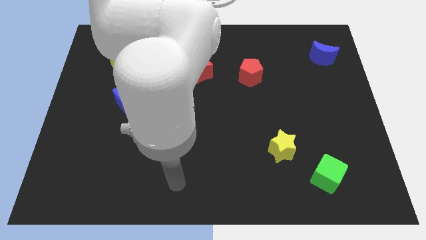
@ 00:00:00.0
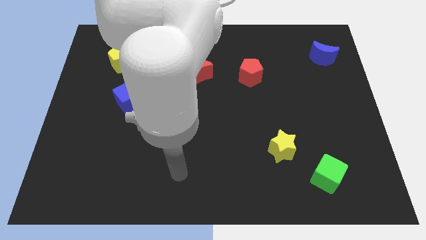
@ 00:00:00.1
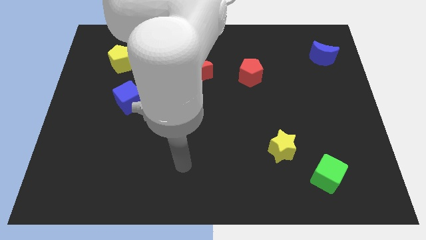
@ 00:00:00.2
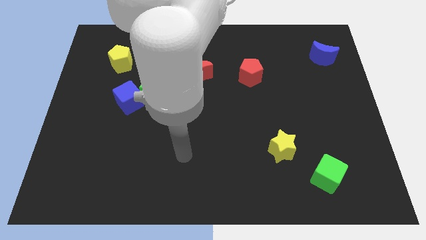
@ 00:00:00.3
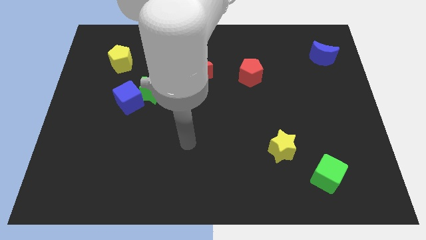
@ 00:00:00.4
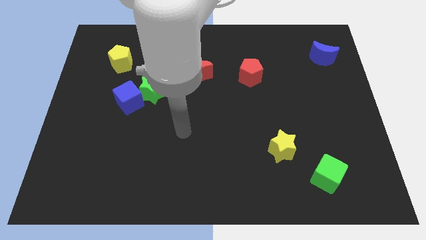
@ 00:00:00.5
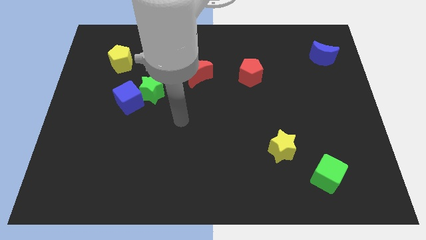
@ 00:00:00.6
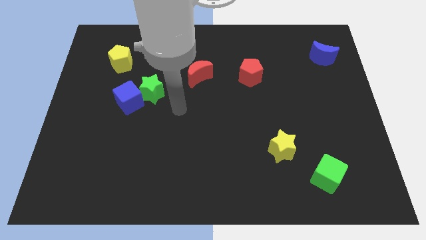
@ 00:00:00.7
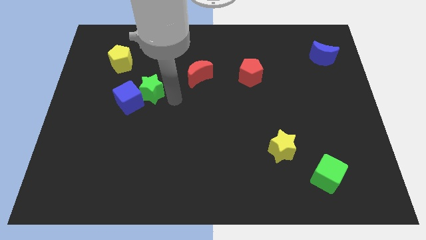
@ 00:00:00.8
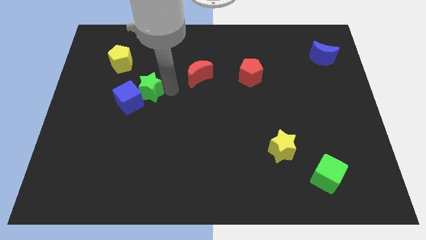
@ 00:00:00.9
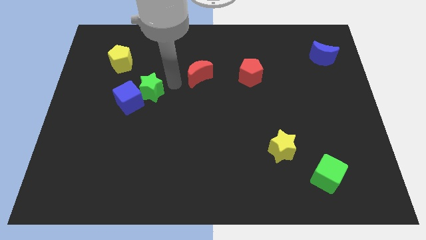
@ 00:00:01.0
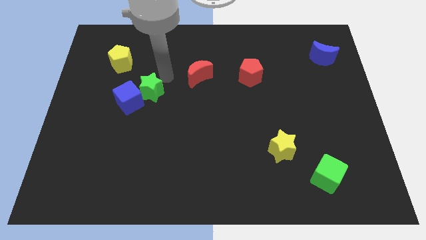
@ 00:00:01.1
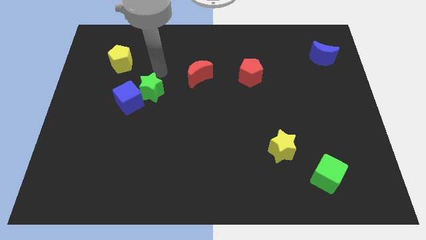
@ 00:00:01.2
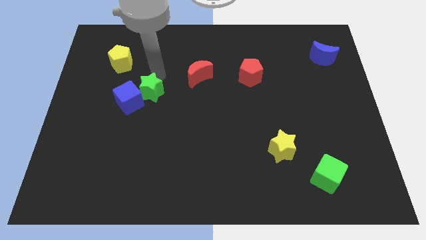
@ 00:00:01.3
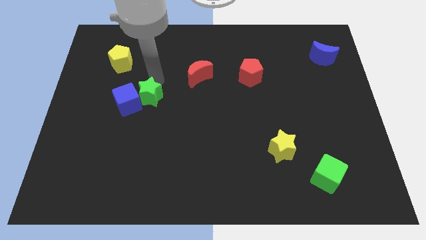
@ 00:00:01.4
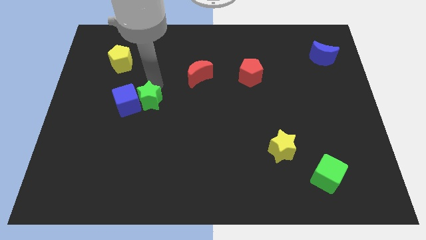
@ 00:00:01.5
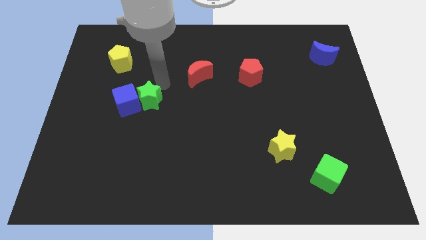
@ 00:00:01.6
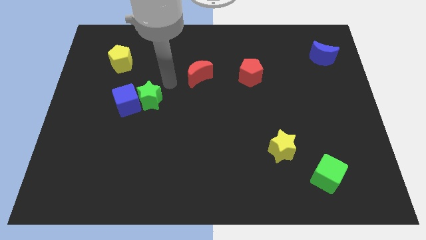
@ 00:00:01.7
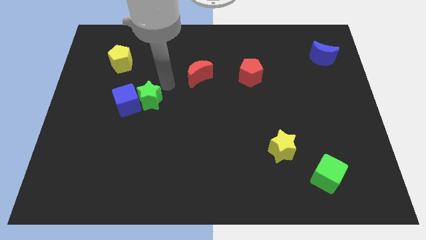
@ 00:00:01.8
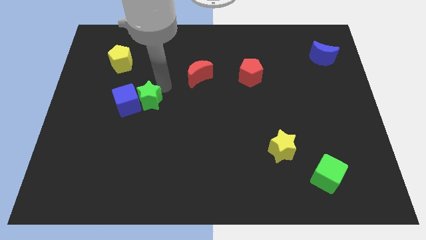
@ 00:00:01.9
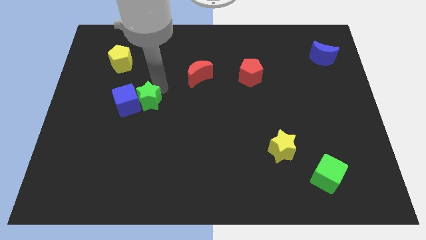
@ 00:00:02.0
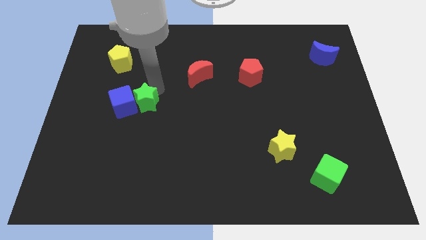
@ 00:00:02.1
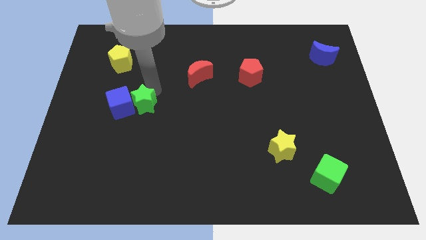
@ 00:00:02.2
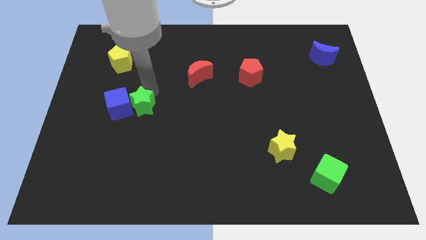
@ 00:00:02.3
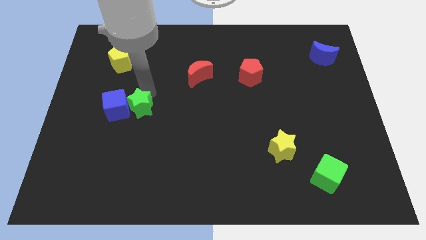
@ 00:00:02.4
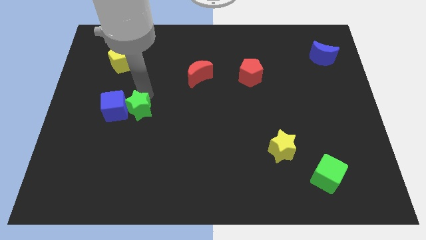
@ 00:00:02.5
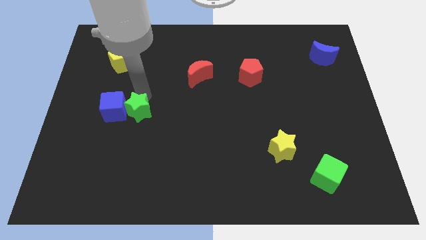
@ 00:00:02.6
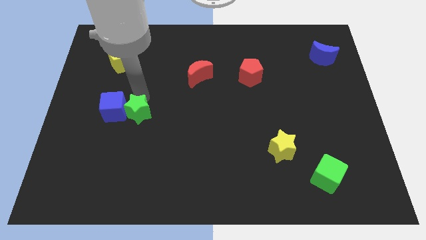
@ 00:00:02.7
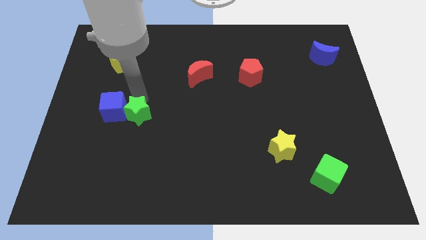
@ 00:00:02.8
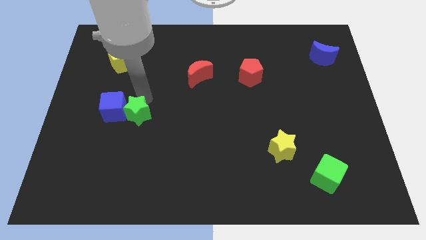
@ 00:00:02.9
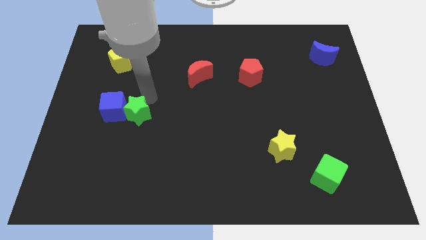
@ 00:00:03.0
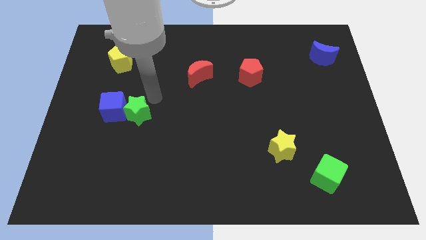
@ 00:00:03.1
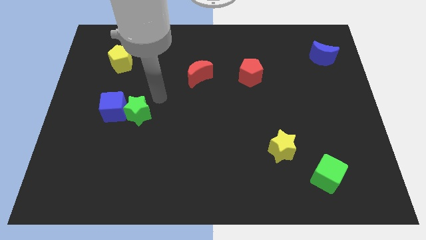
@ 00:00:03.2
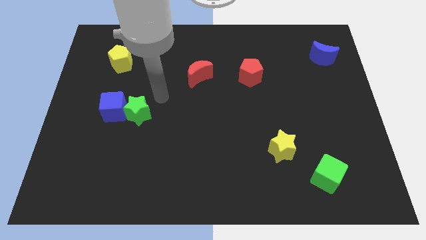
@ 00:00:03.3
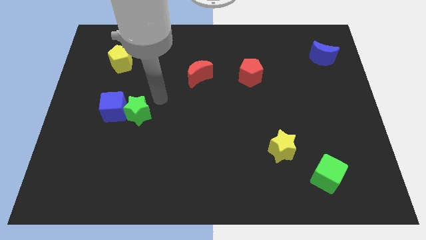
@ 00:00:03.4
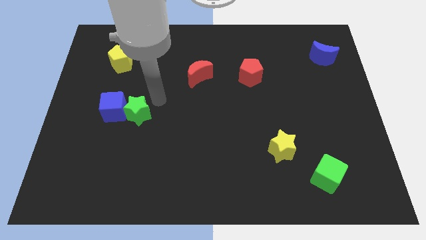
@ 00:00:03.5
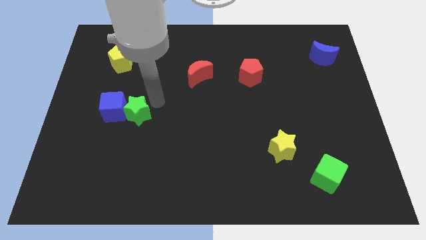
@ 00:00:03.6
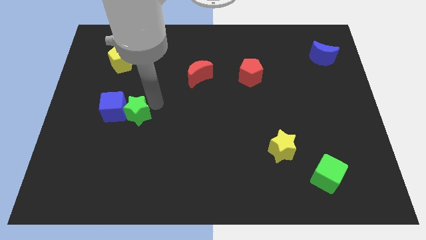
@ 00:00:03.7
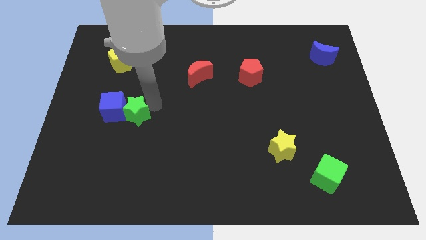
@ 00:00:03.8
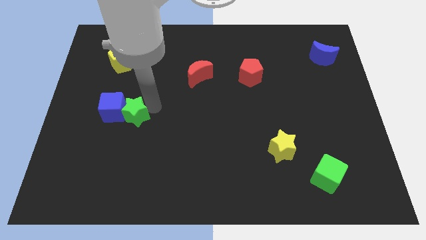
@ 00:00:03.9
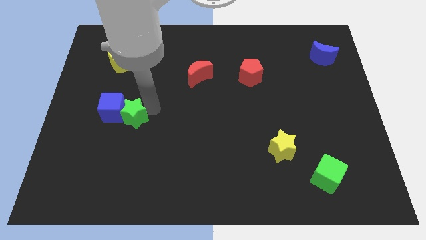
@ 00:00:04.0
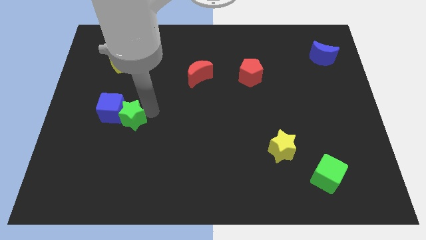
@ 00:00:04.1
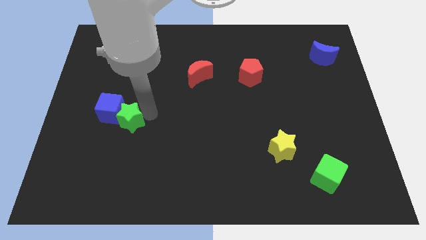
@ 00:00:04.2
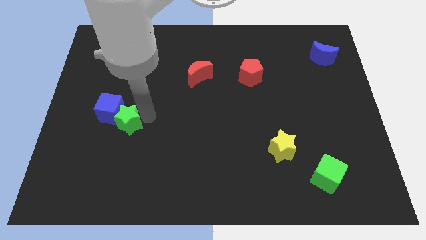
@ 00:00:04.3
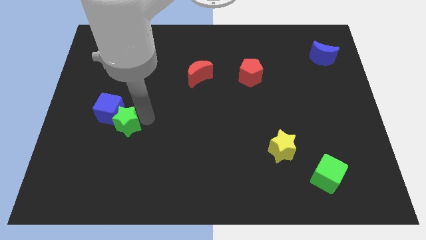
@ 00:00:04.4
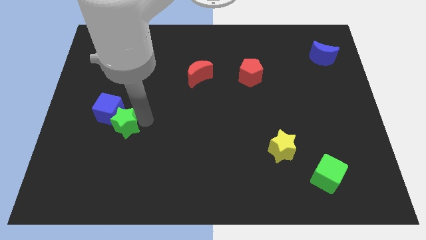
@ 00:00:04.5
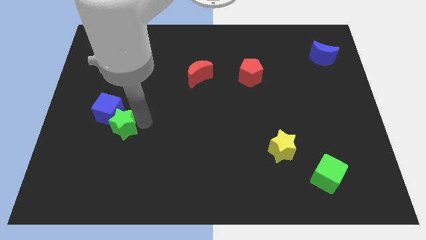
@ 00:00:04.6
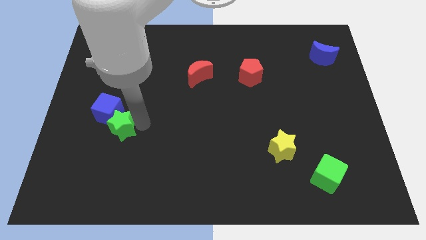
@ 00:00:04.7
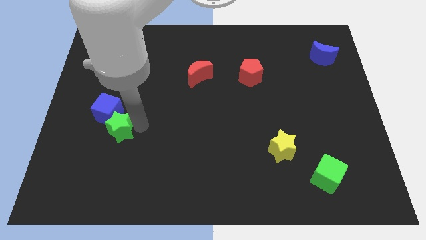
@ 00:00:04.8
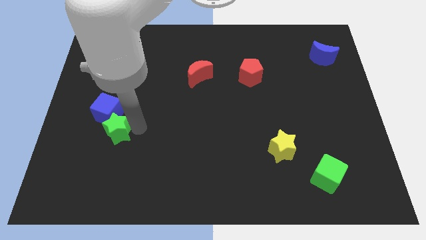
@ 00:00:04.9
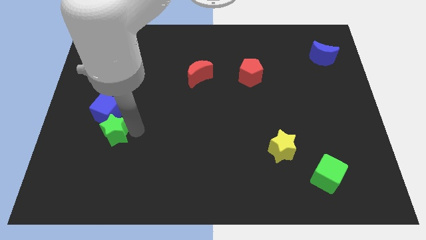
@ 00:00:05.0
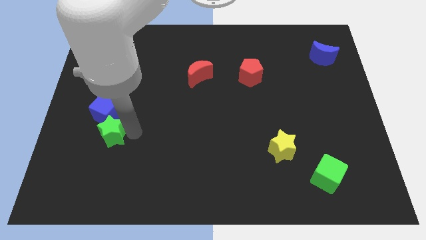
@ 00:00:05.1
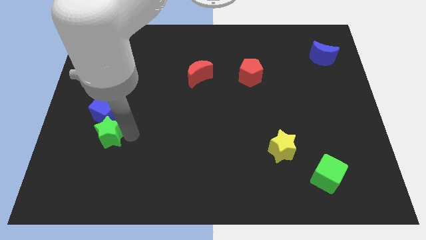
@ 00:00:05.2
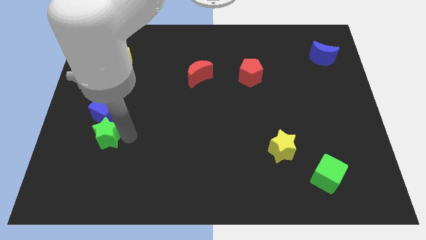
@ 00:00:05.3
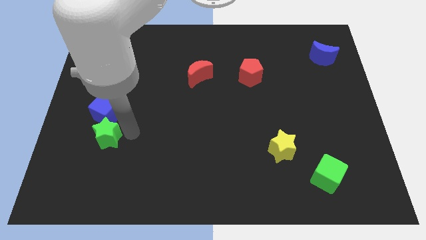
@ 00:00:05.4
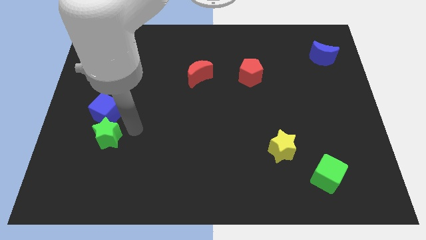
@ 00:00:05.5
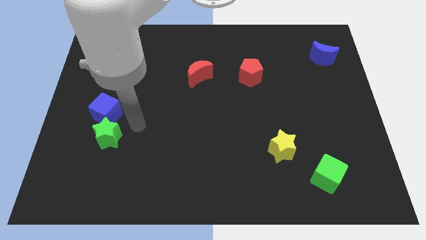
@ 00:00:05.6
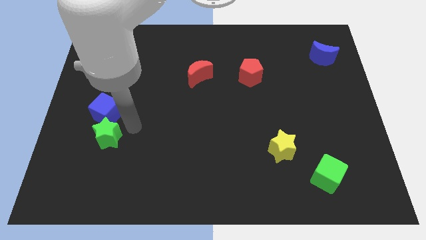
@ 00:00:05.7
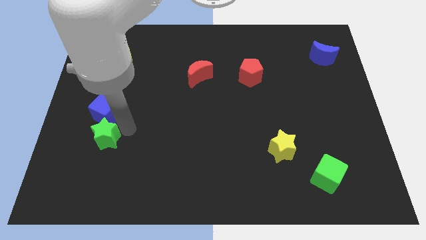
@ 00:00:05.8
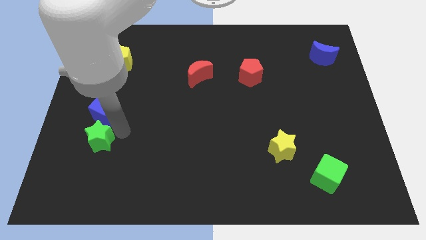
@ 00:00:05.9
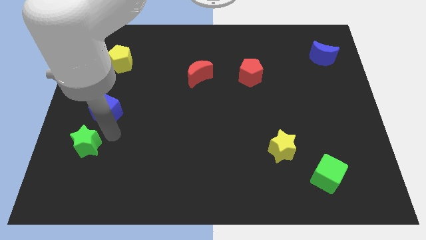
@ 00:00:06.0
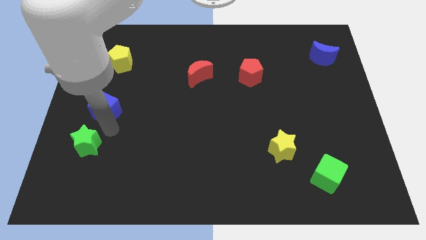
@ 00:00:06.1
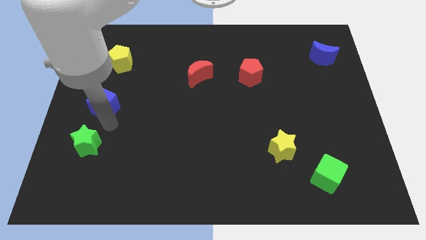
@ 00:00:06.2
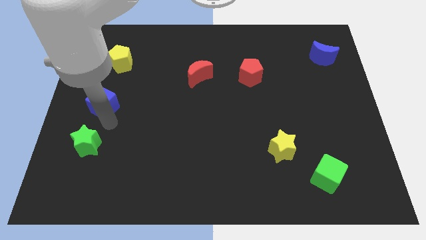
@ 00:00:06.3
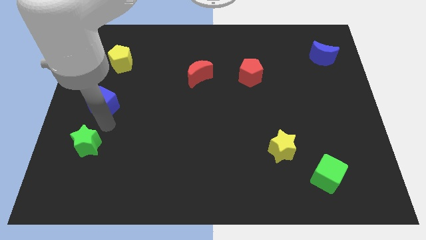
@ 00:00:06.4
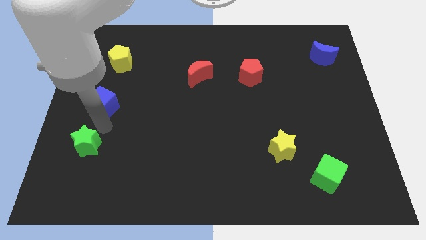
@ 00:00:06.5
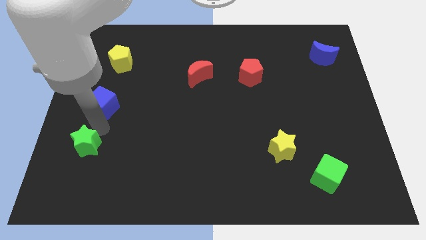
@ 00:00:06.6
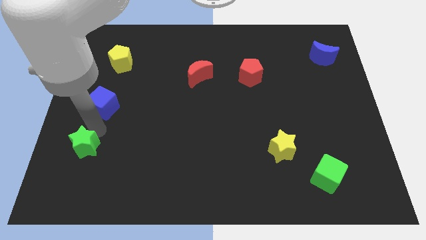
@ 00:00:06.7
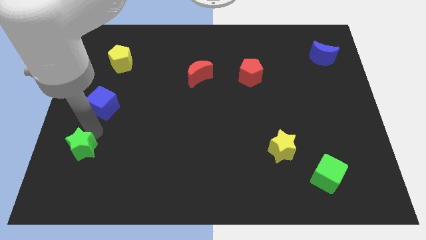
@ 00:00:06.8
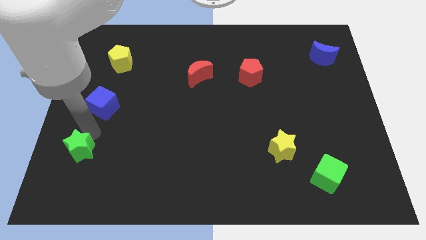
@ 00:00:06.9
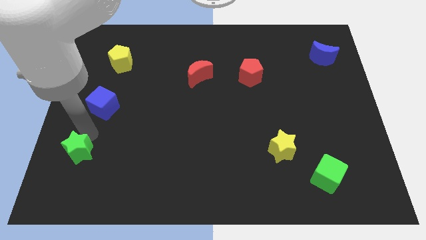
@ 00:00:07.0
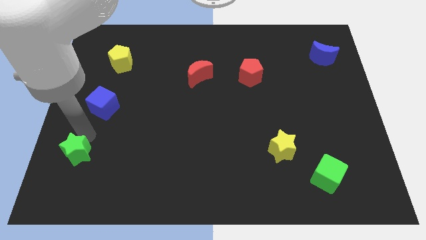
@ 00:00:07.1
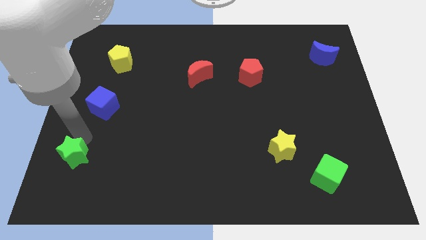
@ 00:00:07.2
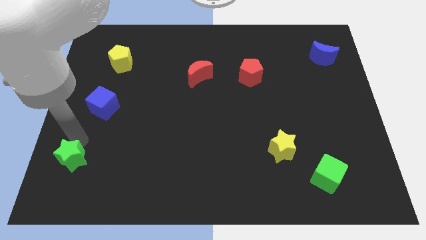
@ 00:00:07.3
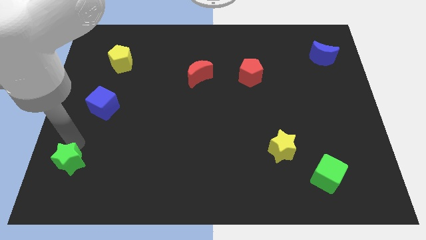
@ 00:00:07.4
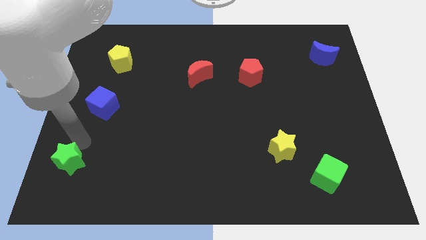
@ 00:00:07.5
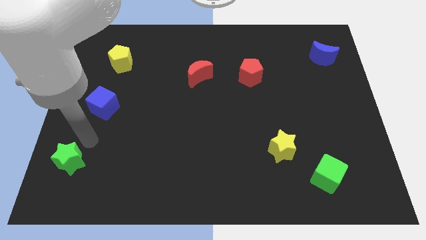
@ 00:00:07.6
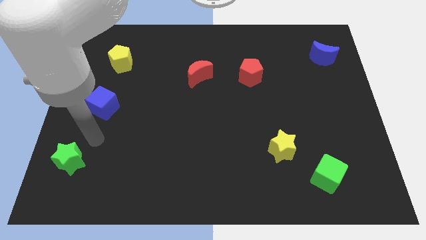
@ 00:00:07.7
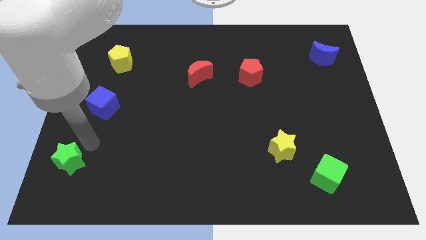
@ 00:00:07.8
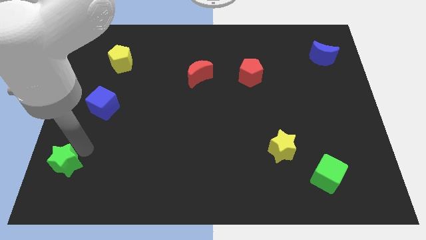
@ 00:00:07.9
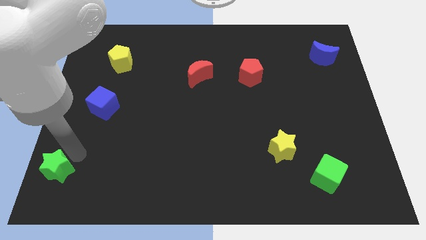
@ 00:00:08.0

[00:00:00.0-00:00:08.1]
push the green star to the bottom left corner
